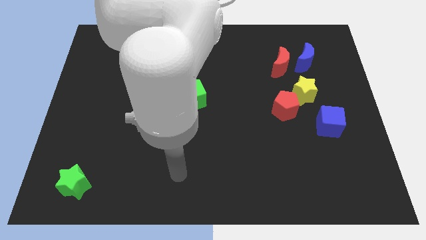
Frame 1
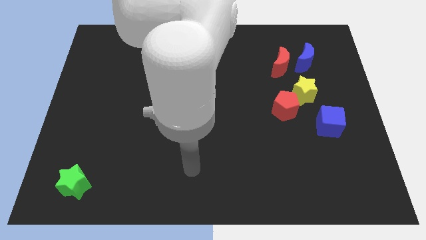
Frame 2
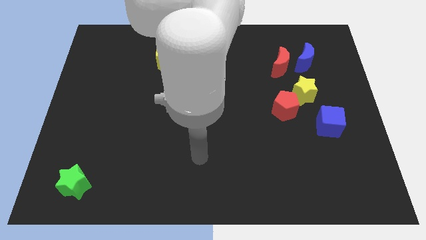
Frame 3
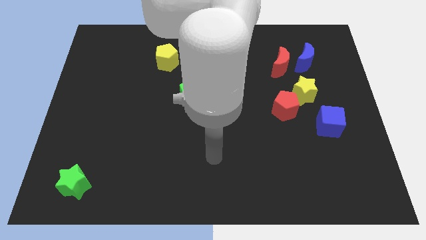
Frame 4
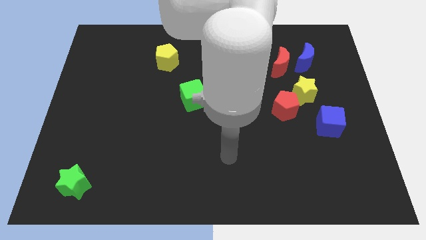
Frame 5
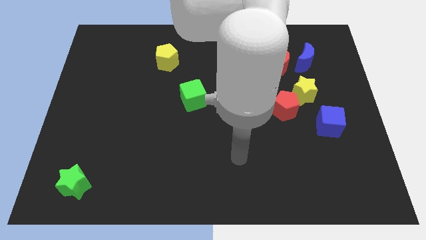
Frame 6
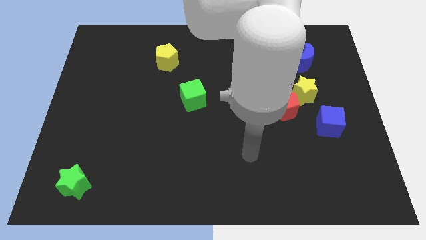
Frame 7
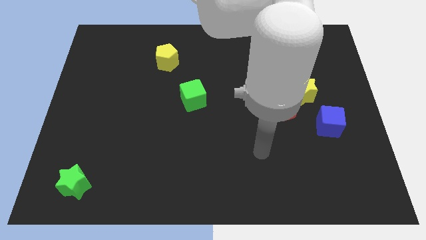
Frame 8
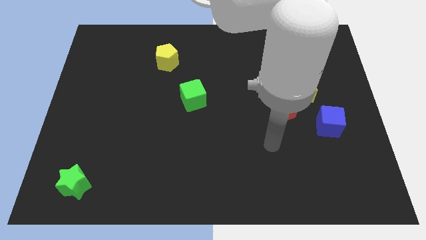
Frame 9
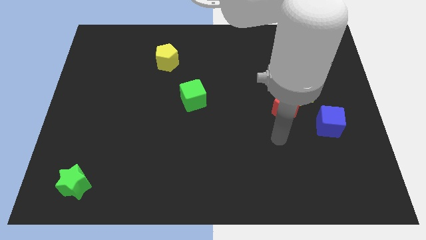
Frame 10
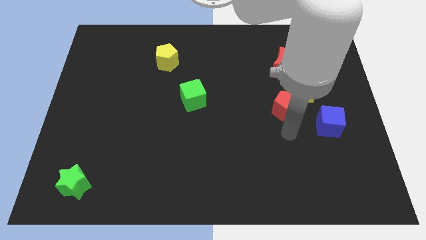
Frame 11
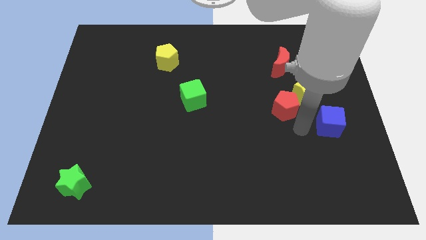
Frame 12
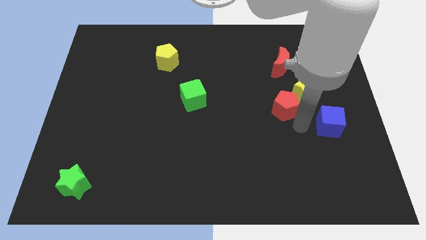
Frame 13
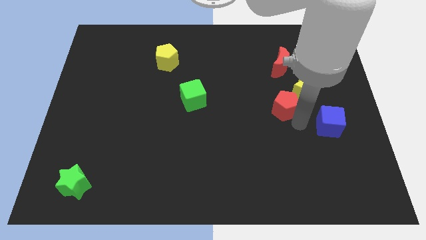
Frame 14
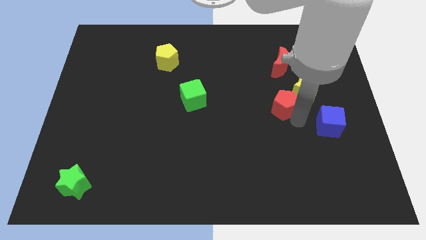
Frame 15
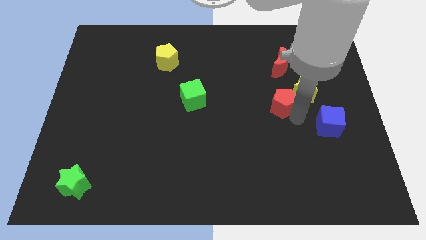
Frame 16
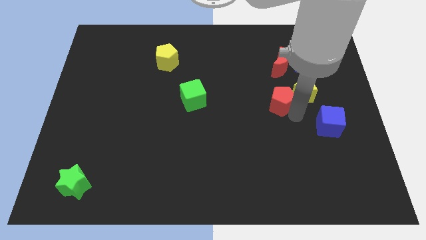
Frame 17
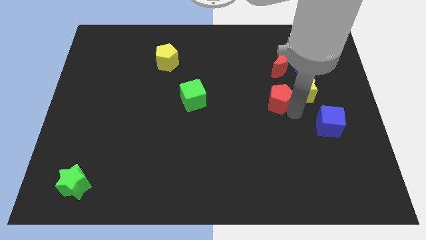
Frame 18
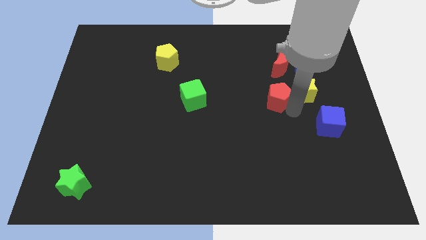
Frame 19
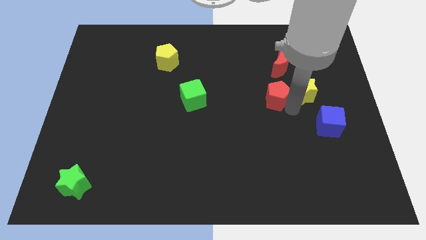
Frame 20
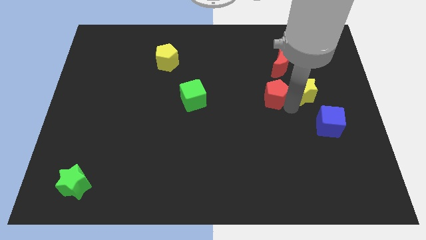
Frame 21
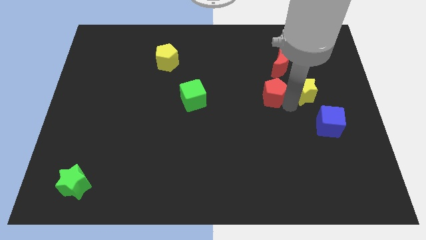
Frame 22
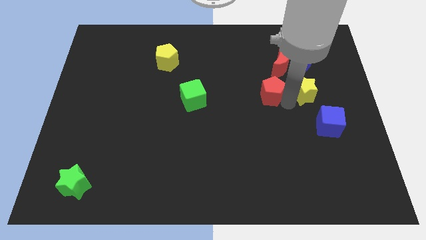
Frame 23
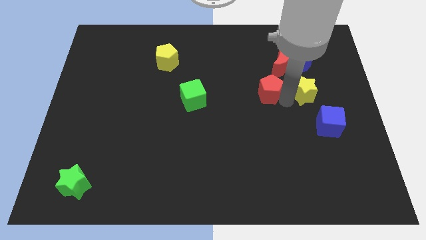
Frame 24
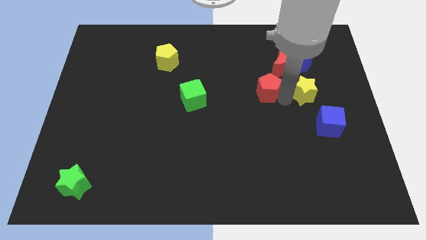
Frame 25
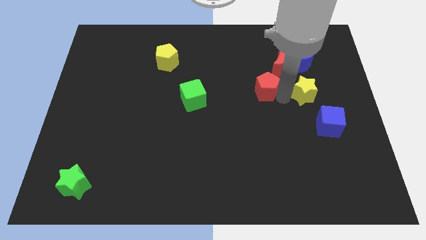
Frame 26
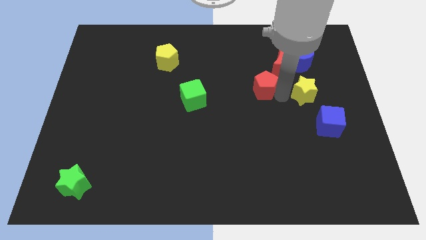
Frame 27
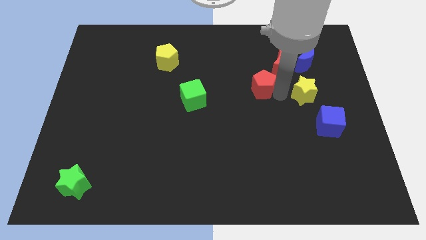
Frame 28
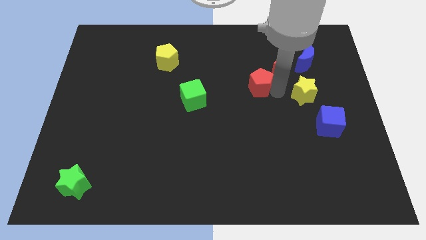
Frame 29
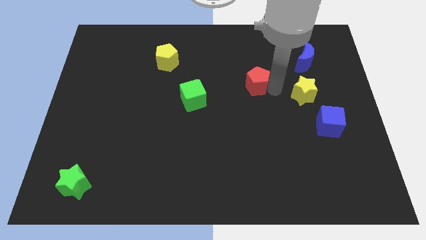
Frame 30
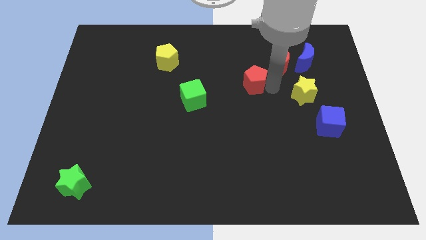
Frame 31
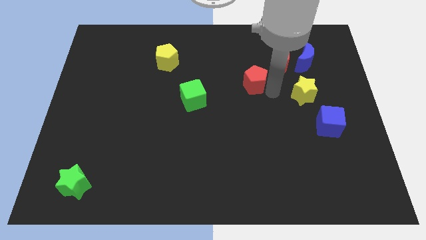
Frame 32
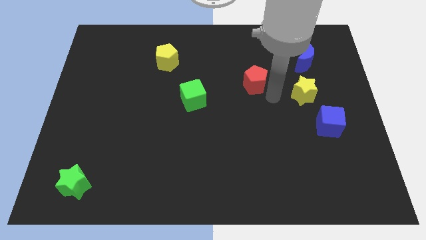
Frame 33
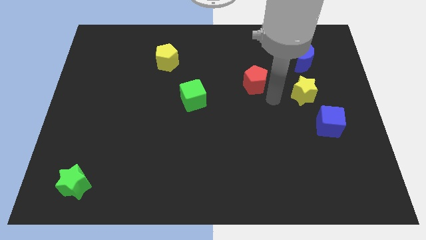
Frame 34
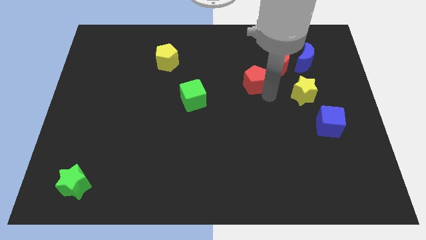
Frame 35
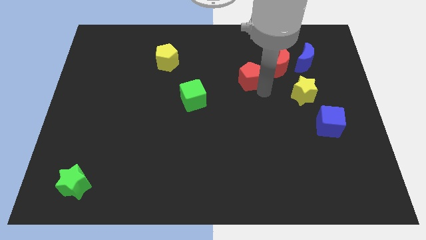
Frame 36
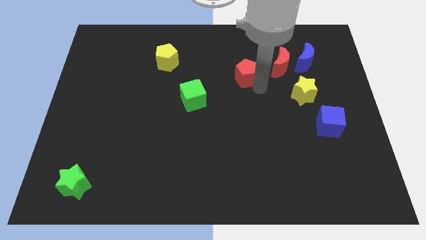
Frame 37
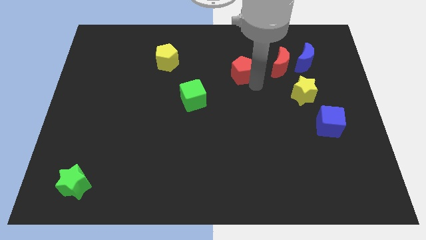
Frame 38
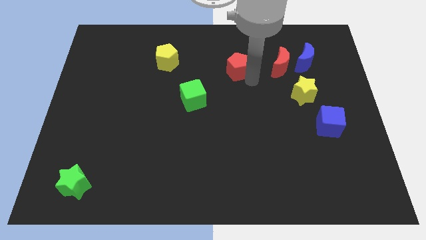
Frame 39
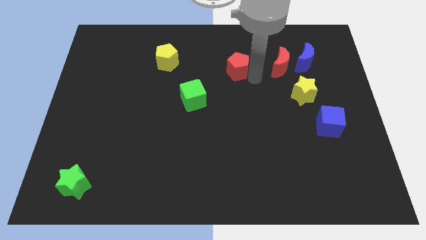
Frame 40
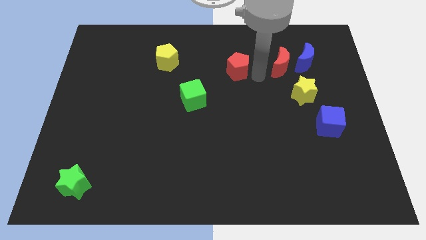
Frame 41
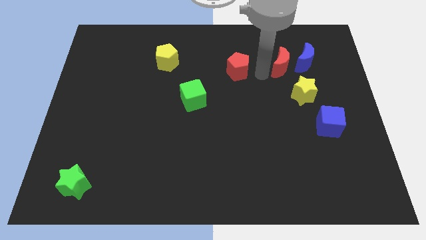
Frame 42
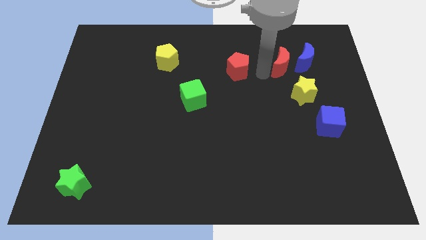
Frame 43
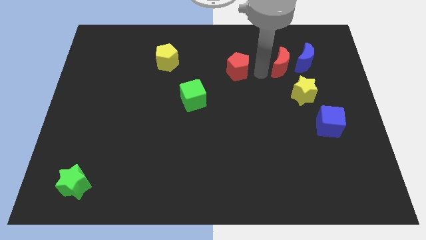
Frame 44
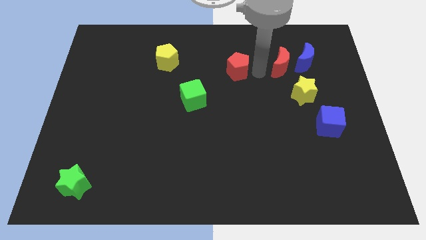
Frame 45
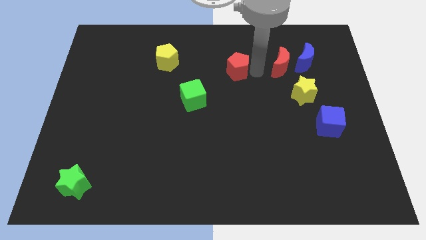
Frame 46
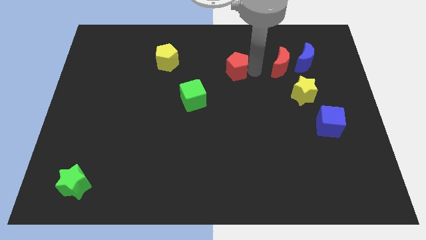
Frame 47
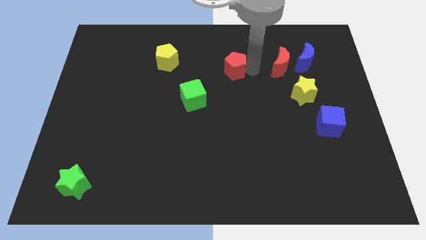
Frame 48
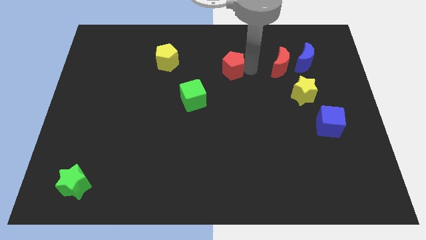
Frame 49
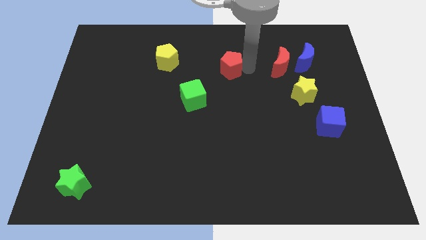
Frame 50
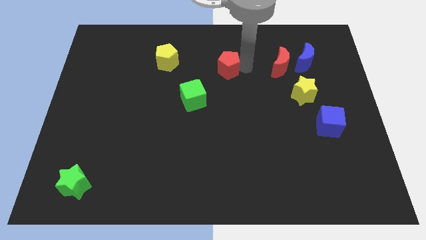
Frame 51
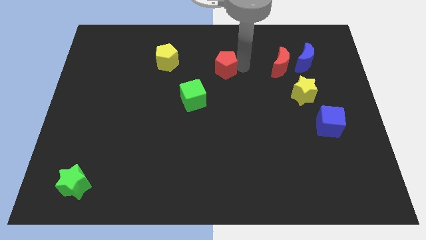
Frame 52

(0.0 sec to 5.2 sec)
move the red pentagon just right of the yellow pentagon

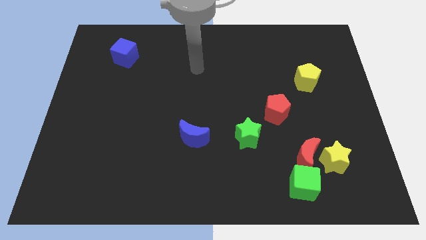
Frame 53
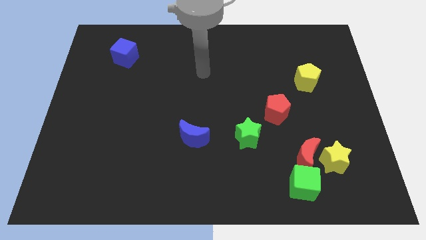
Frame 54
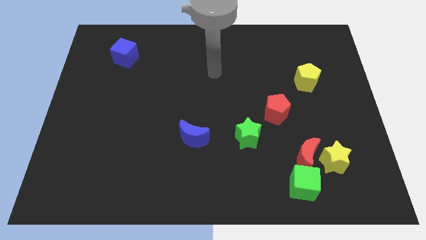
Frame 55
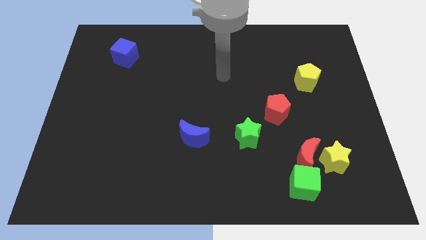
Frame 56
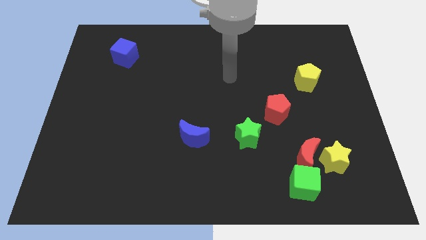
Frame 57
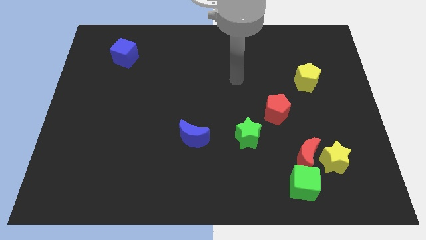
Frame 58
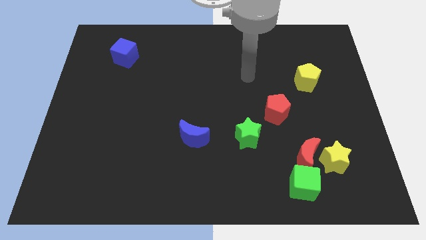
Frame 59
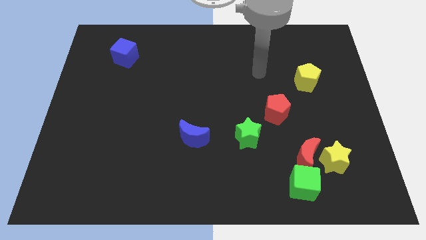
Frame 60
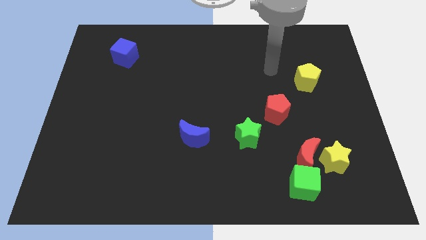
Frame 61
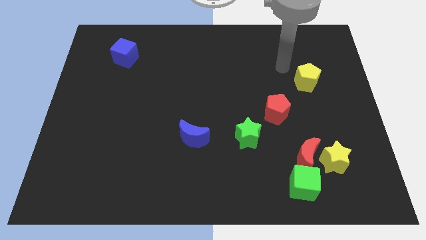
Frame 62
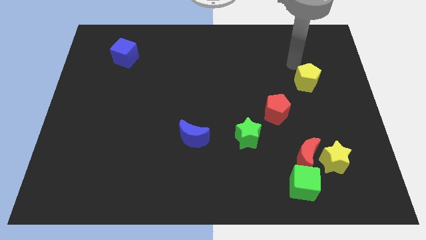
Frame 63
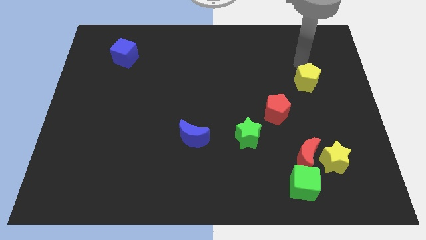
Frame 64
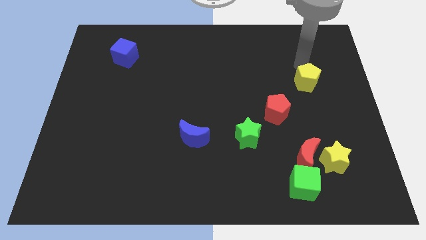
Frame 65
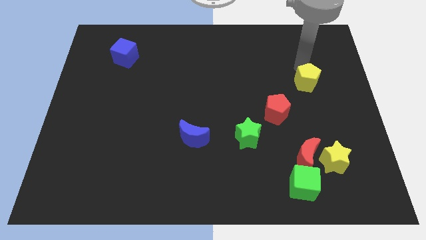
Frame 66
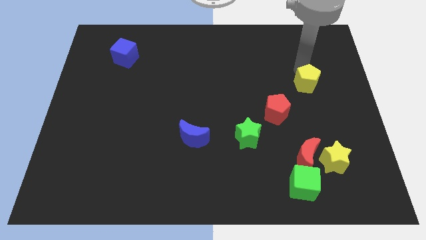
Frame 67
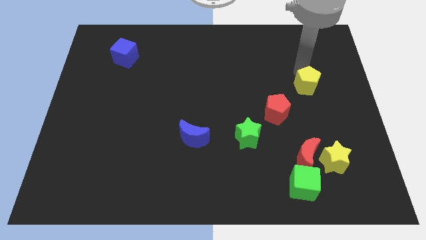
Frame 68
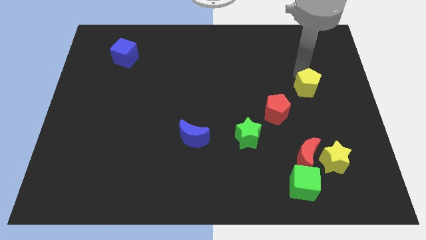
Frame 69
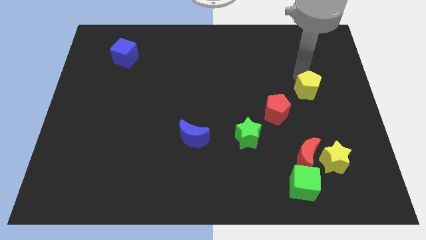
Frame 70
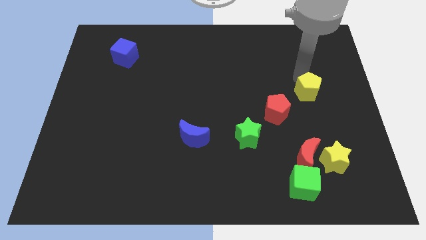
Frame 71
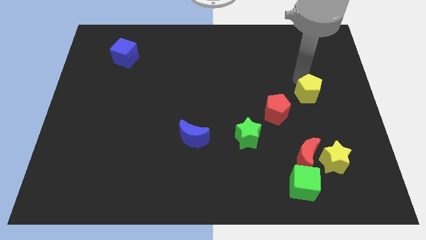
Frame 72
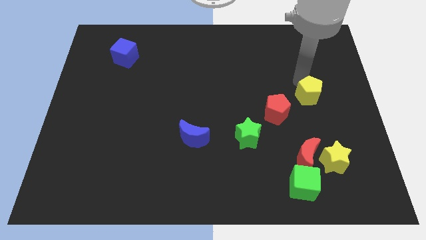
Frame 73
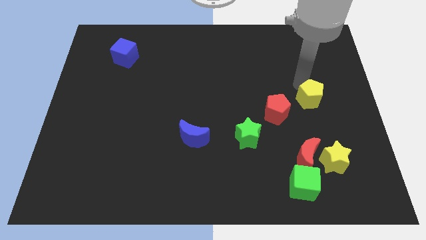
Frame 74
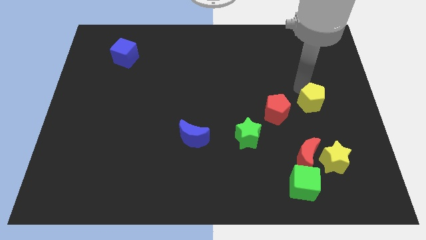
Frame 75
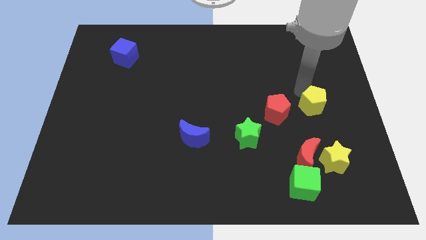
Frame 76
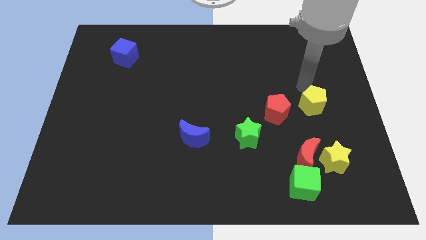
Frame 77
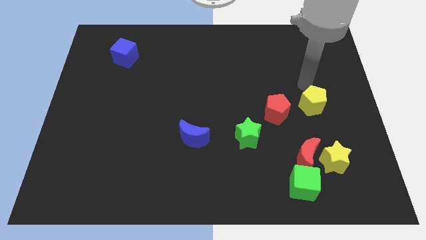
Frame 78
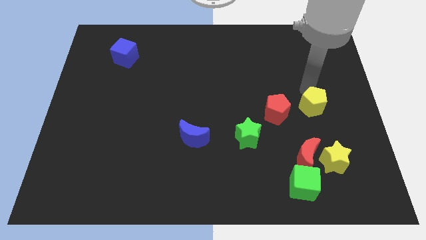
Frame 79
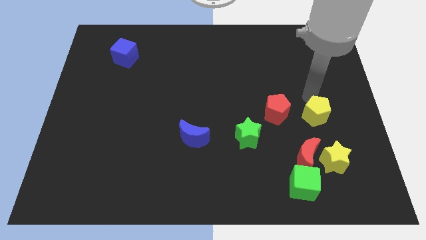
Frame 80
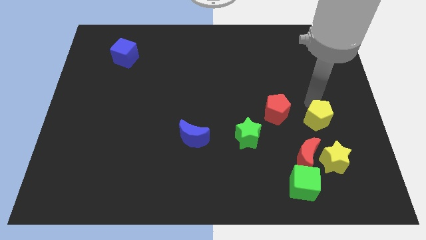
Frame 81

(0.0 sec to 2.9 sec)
move the yellow pentagon to the top right side of the red moon

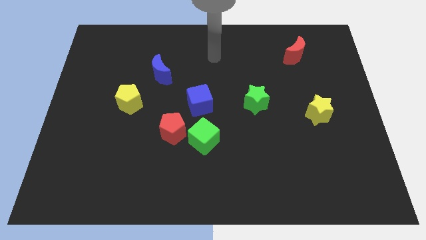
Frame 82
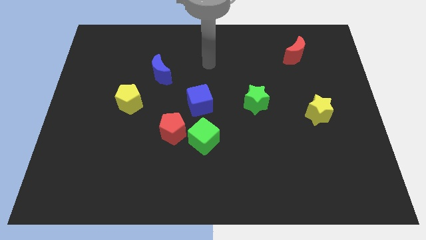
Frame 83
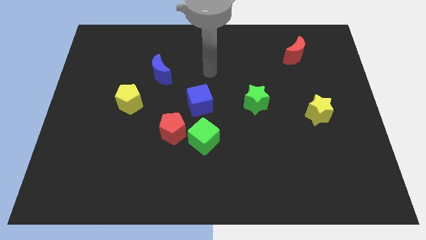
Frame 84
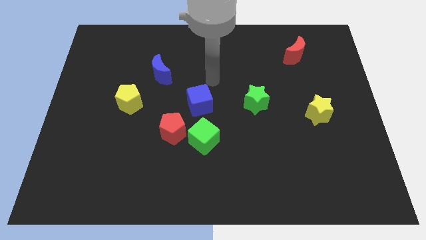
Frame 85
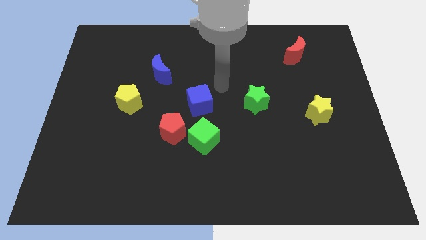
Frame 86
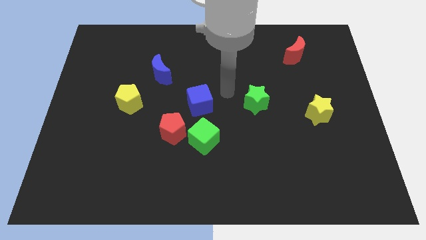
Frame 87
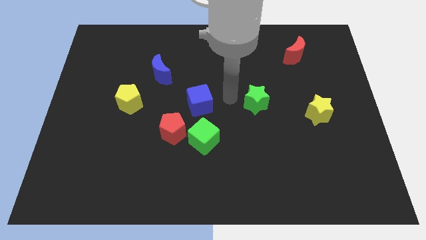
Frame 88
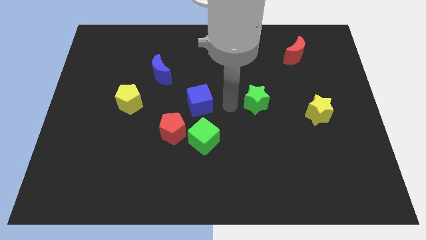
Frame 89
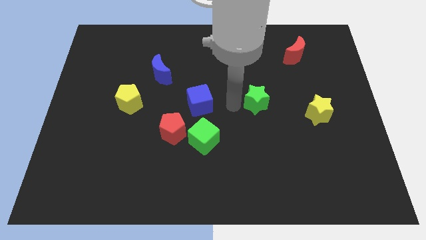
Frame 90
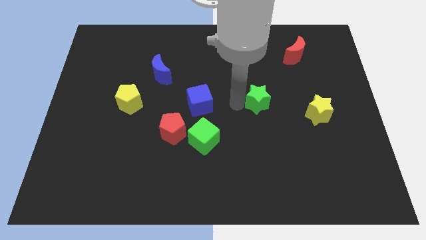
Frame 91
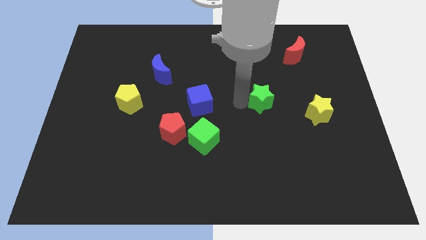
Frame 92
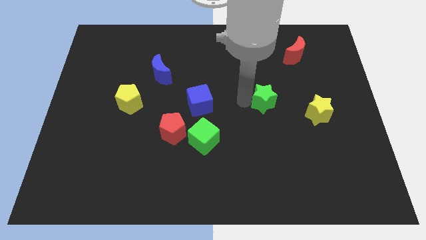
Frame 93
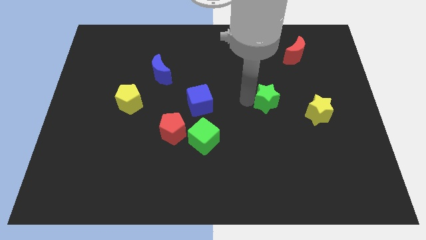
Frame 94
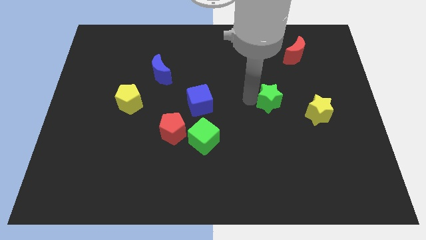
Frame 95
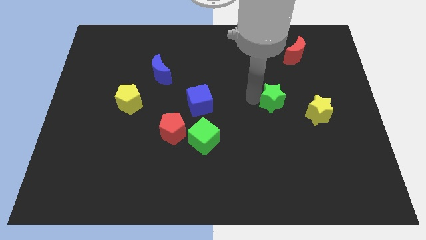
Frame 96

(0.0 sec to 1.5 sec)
slide the green star diagonally up and to the left of the yellow star
